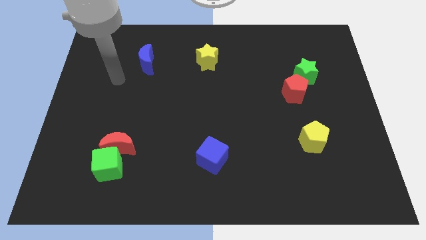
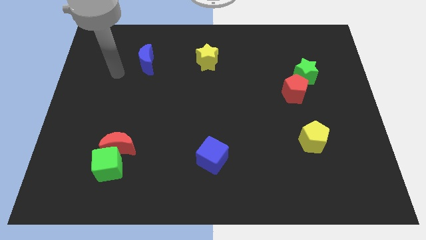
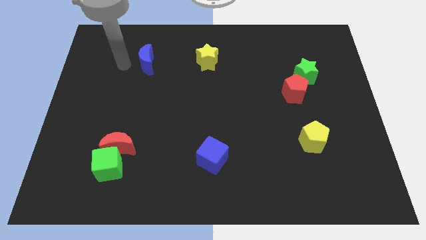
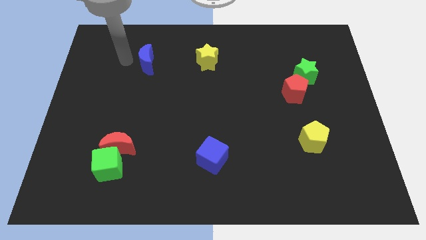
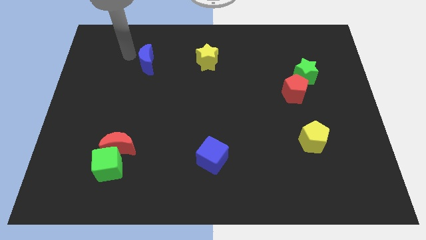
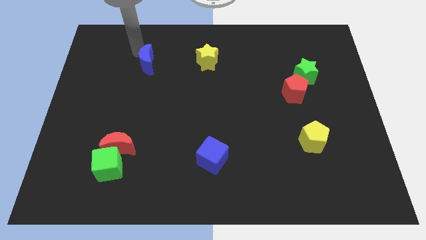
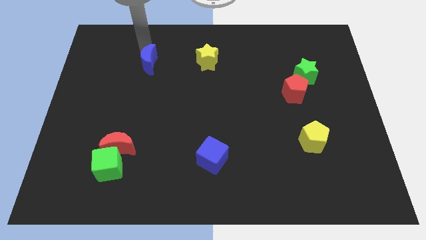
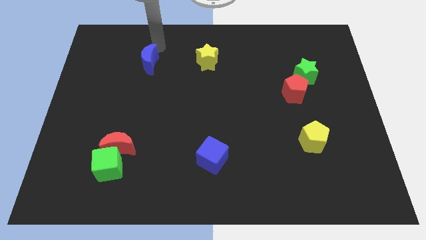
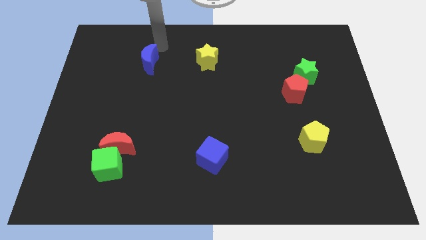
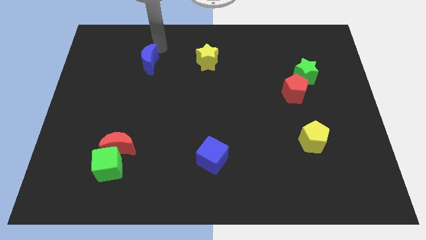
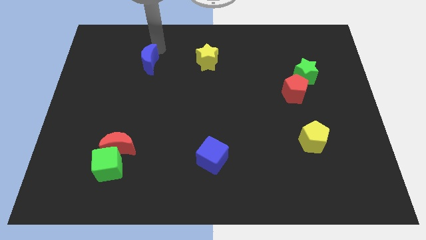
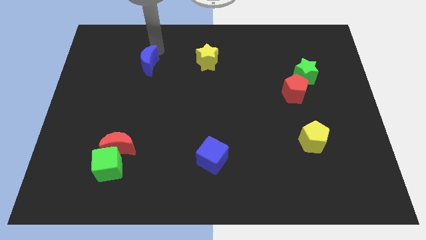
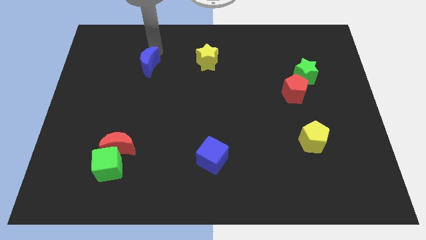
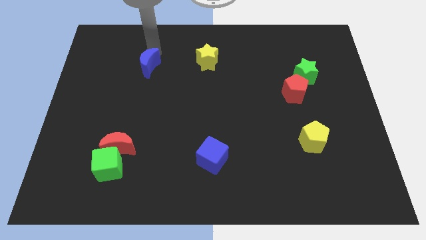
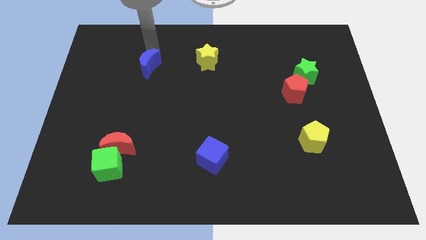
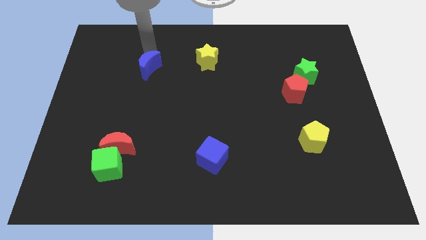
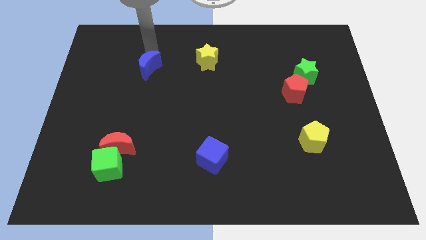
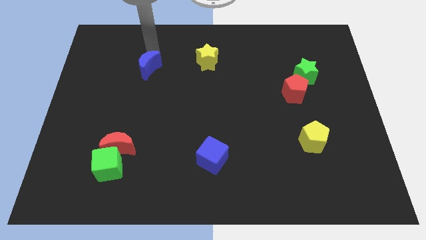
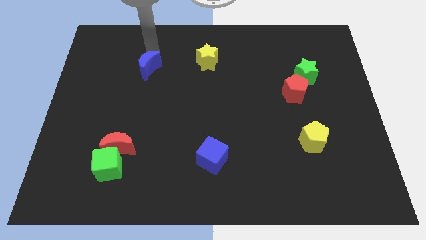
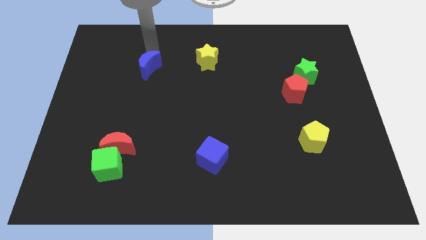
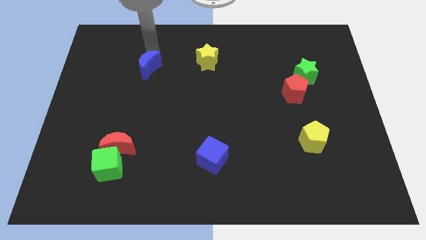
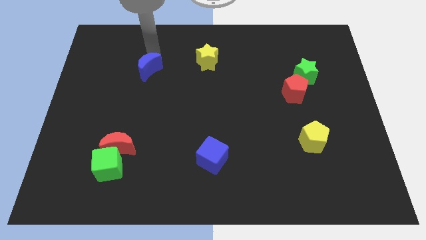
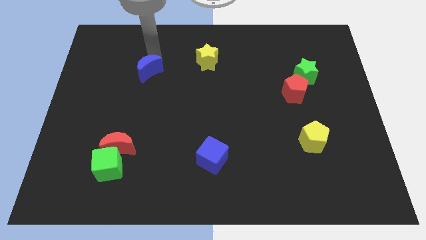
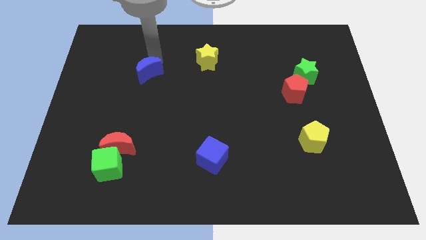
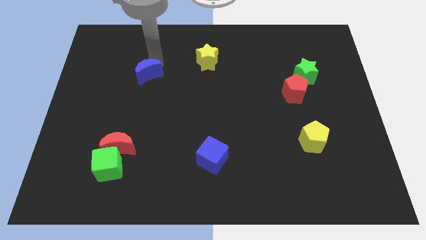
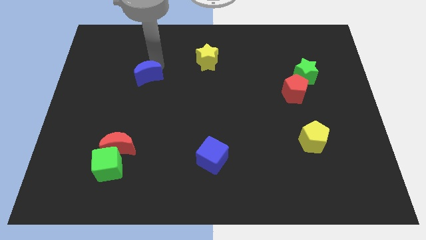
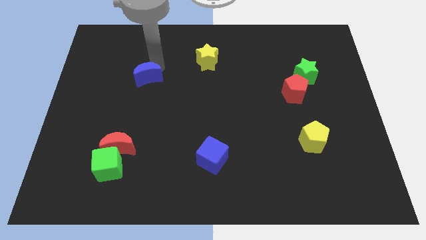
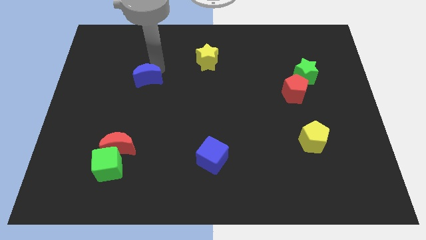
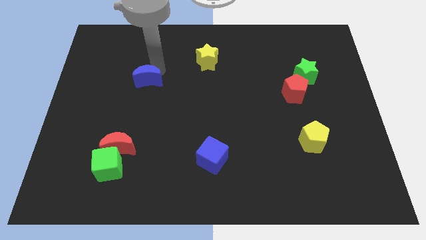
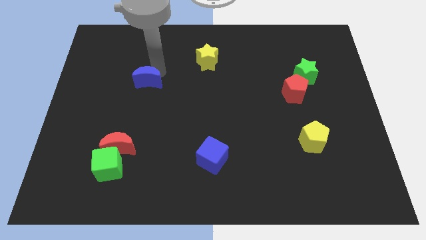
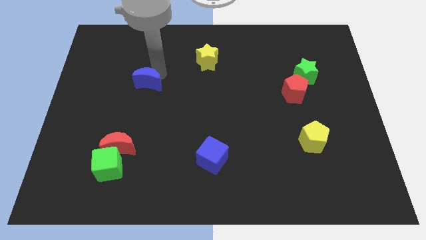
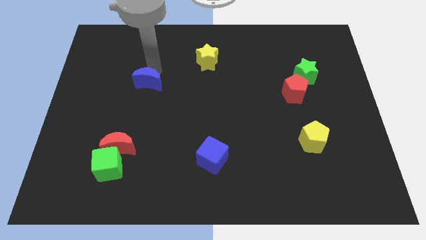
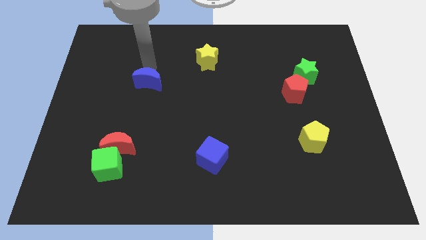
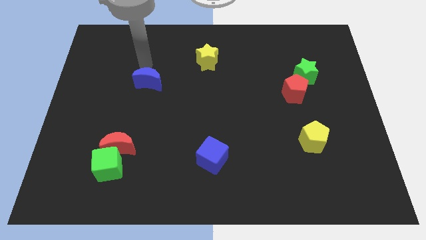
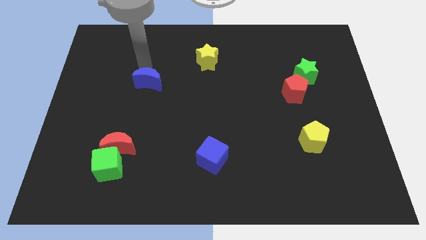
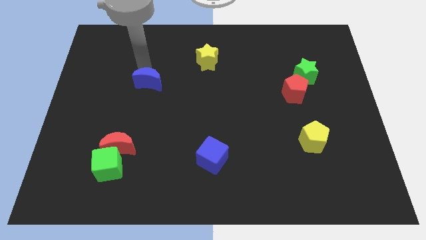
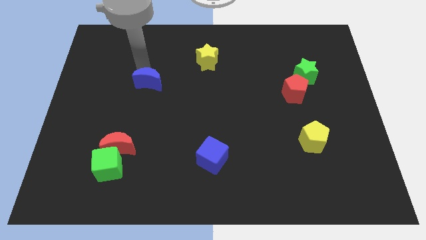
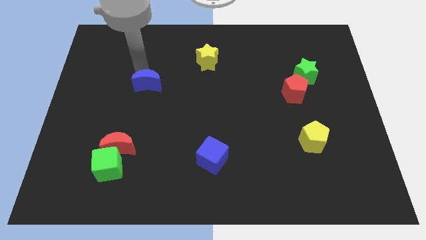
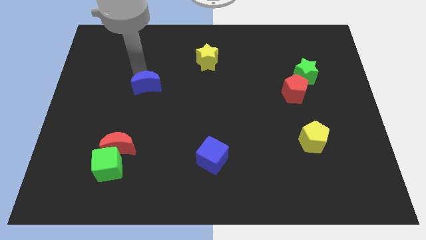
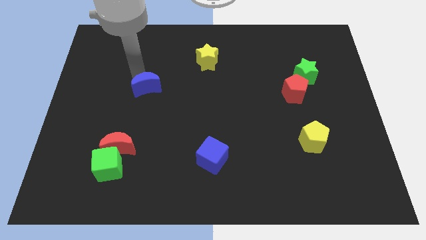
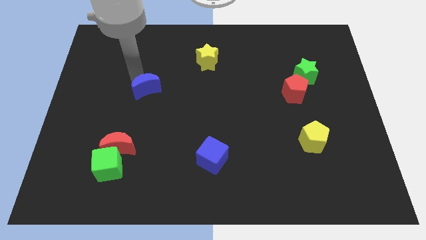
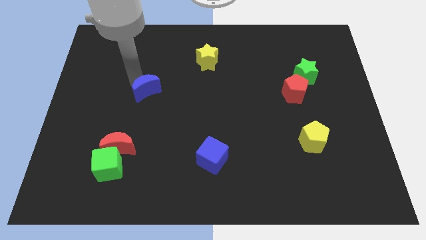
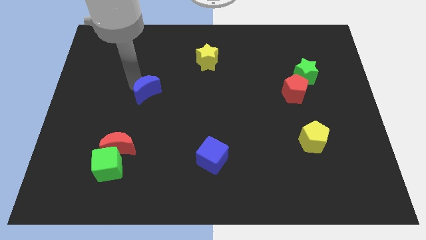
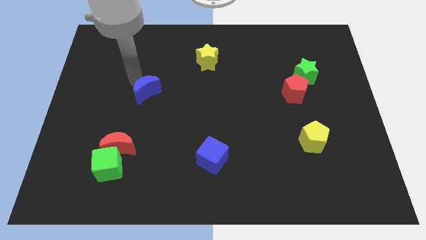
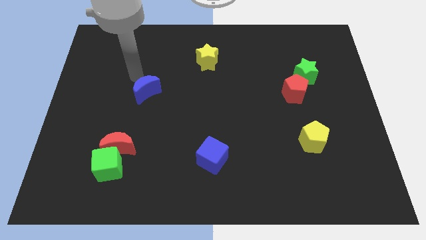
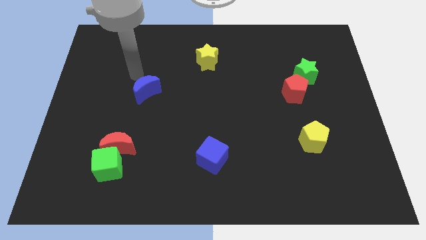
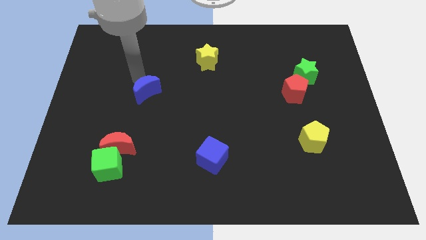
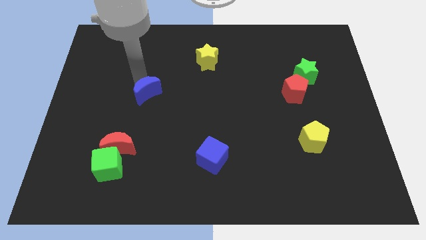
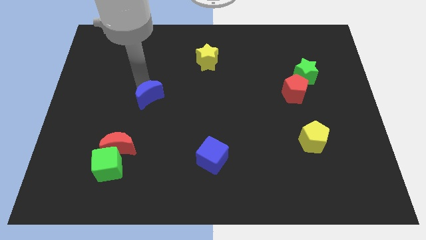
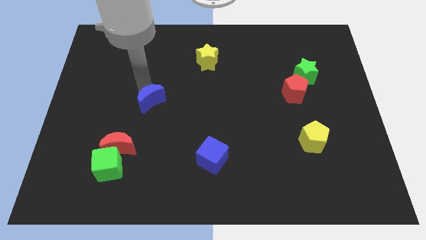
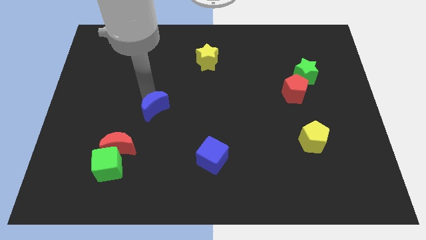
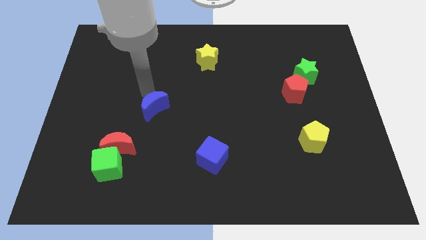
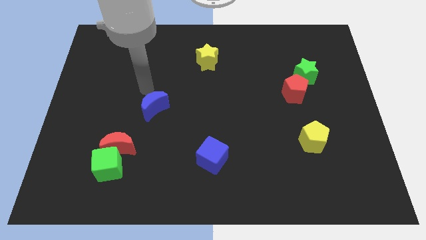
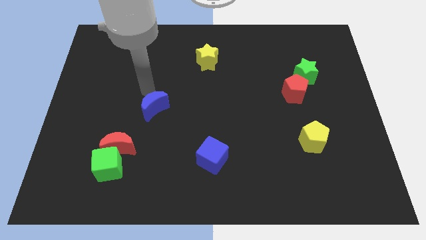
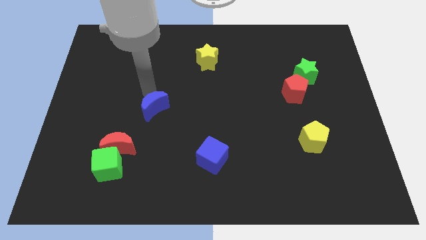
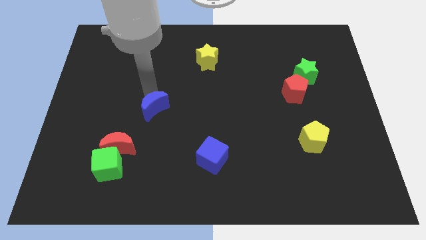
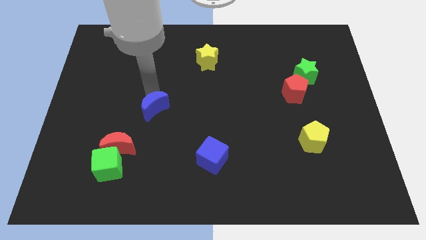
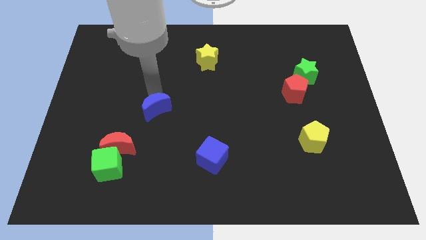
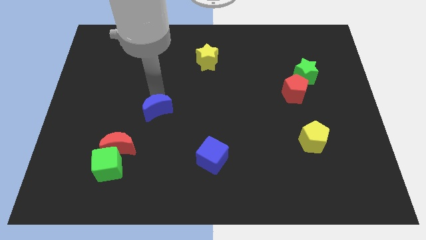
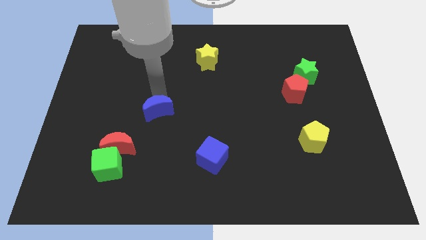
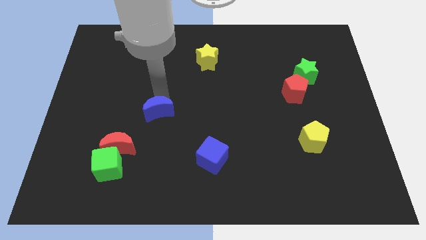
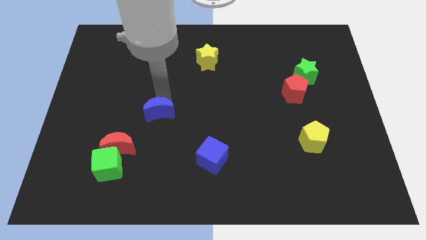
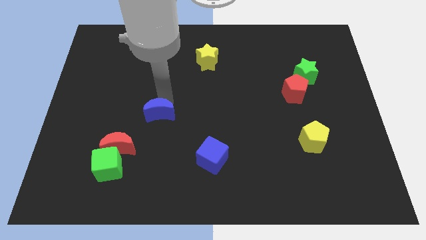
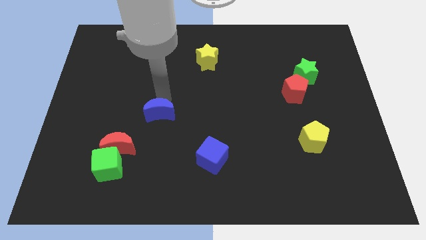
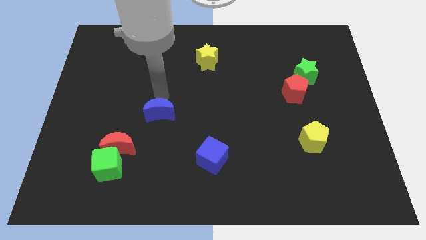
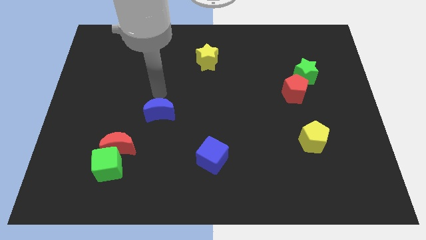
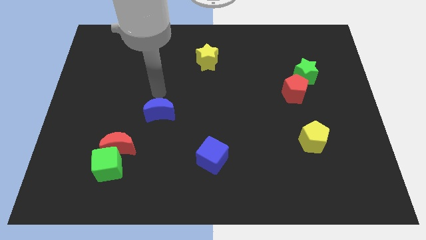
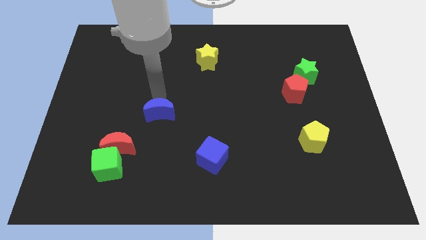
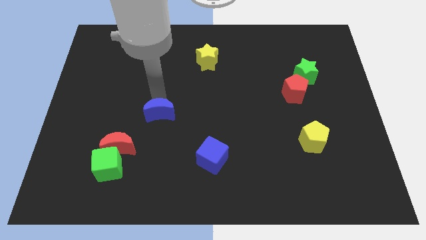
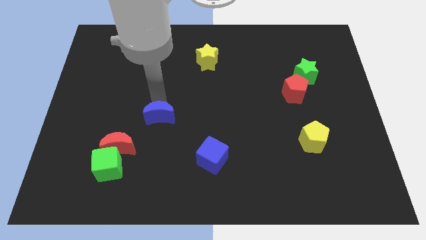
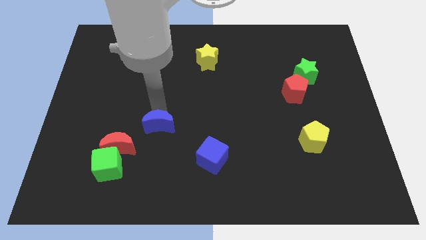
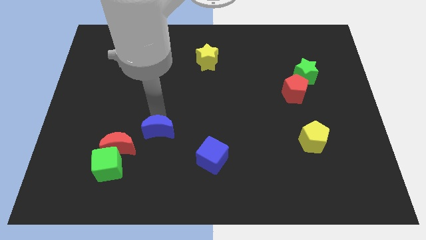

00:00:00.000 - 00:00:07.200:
slide the blue moon to the right of the red moon
